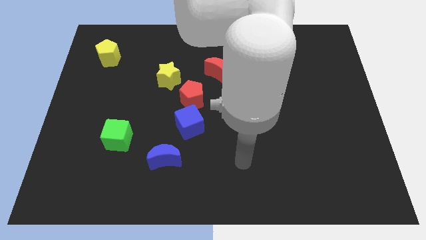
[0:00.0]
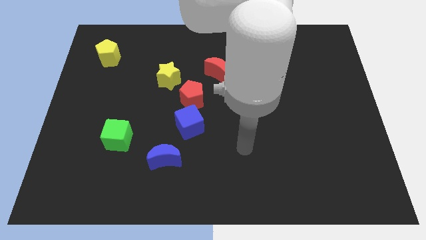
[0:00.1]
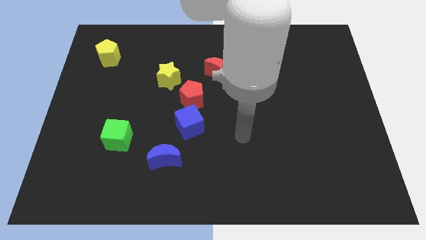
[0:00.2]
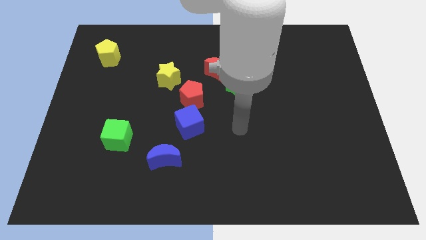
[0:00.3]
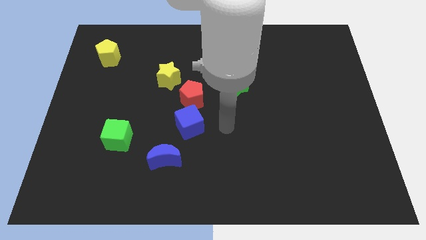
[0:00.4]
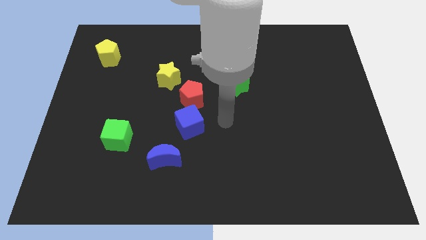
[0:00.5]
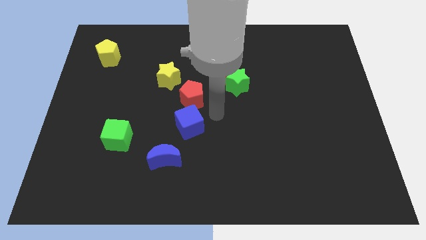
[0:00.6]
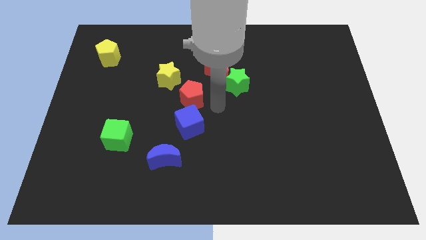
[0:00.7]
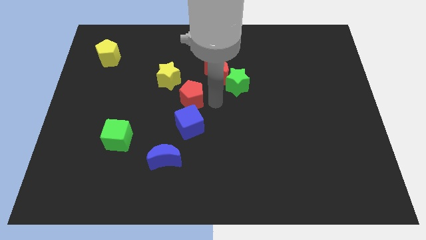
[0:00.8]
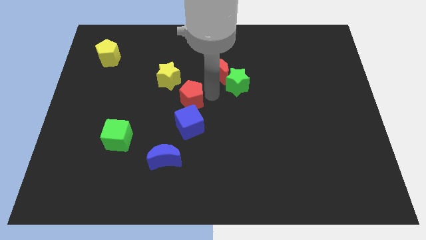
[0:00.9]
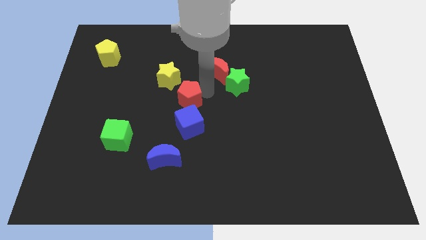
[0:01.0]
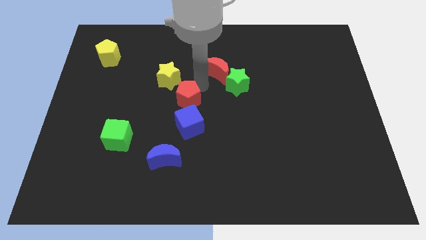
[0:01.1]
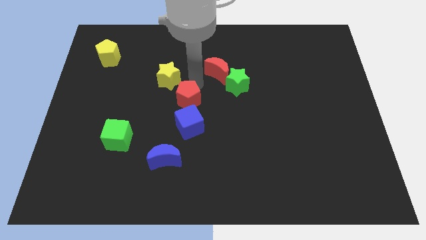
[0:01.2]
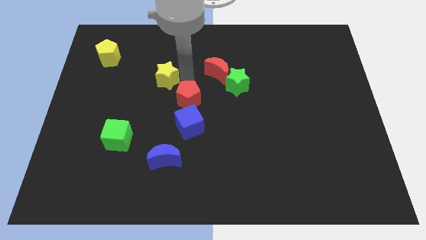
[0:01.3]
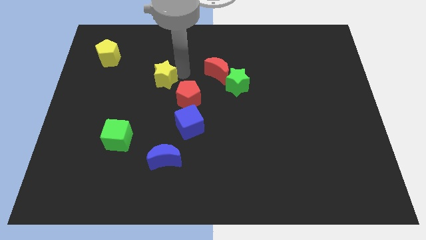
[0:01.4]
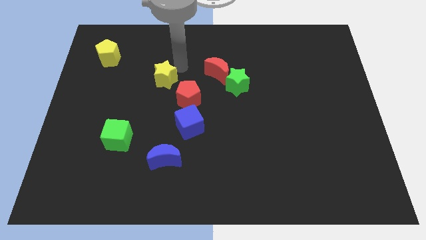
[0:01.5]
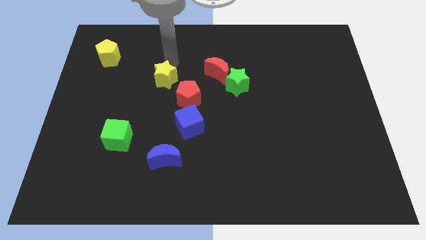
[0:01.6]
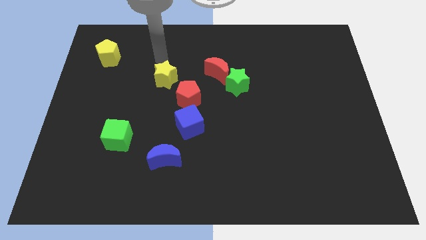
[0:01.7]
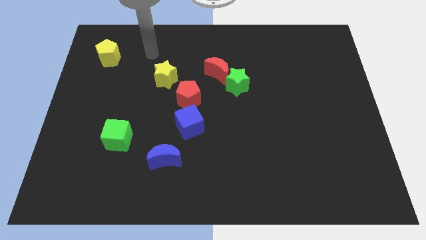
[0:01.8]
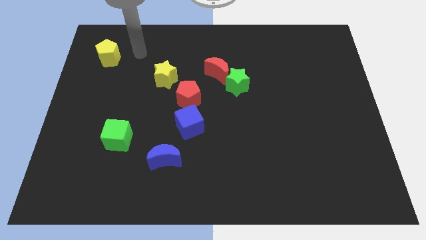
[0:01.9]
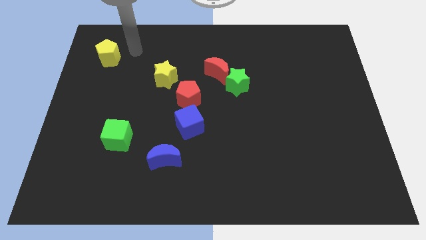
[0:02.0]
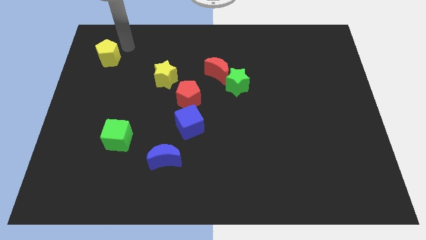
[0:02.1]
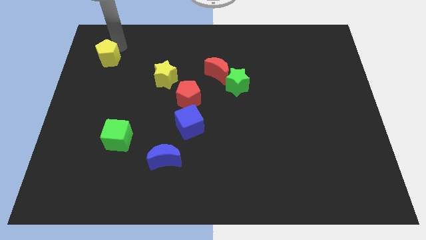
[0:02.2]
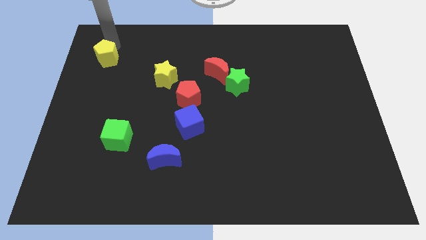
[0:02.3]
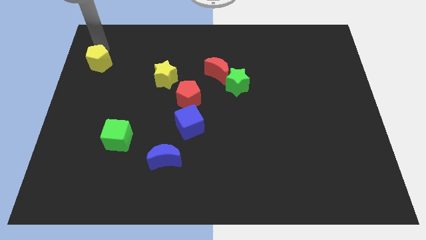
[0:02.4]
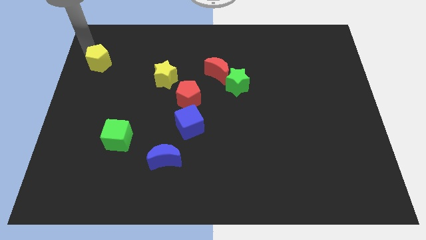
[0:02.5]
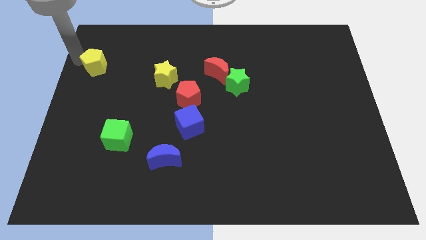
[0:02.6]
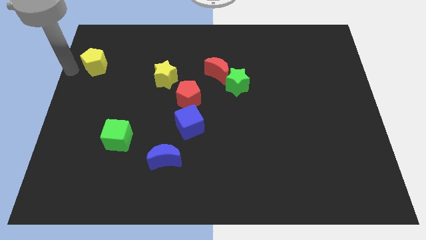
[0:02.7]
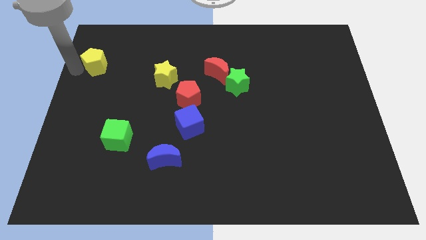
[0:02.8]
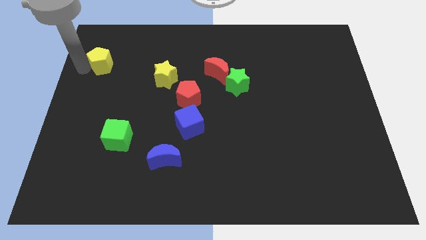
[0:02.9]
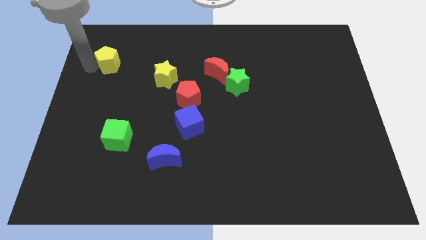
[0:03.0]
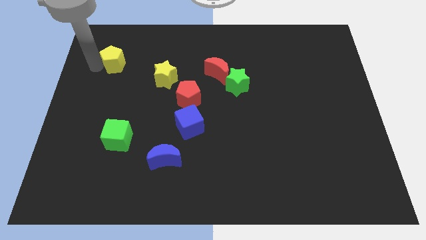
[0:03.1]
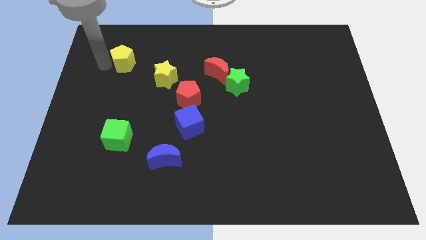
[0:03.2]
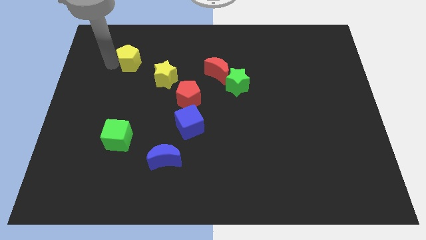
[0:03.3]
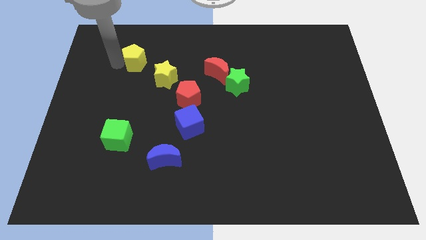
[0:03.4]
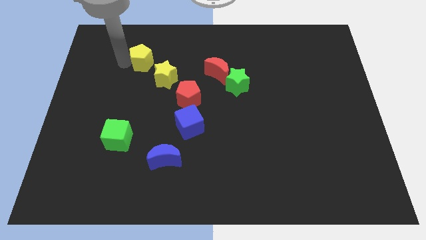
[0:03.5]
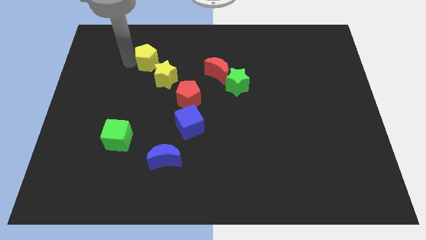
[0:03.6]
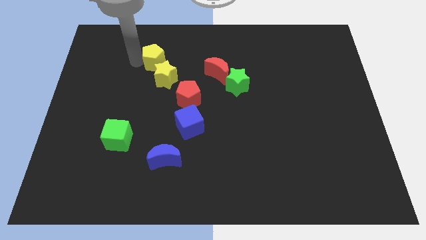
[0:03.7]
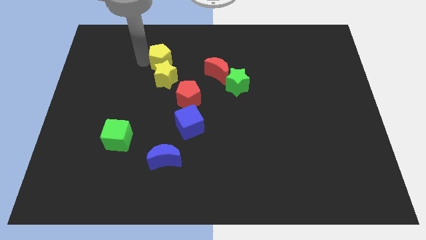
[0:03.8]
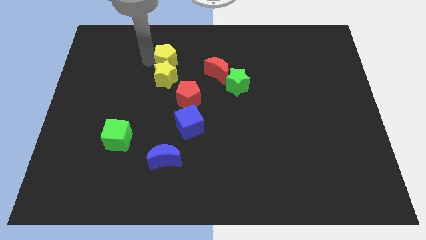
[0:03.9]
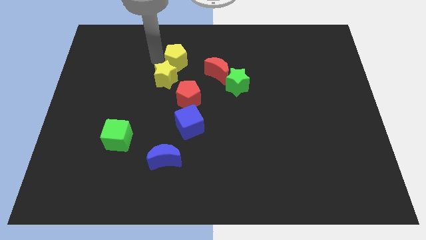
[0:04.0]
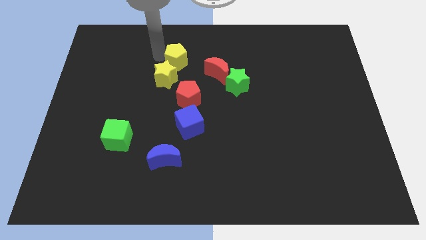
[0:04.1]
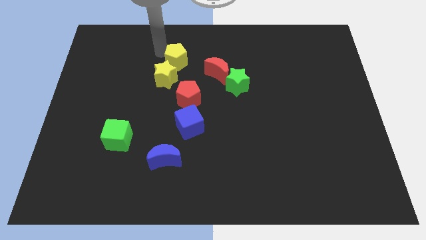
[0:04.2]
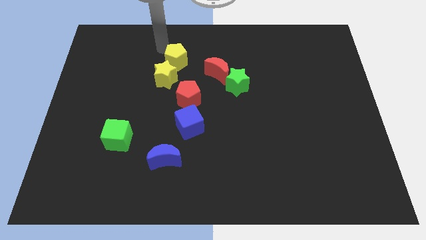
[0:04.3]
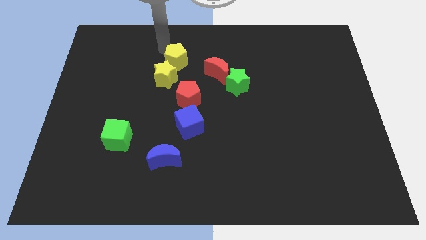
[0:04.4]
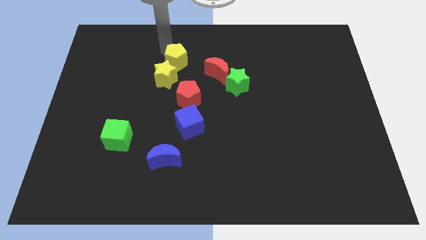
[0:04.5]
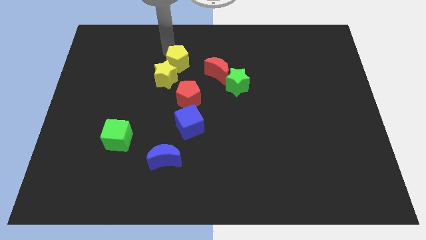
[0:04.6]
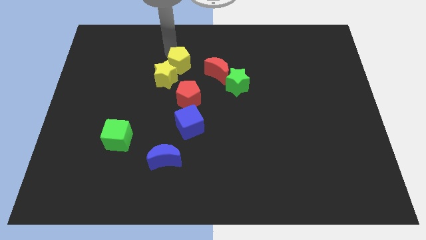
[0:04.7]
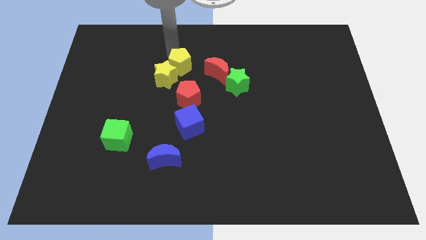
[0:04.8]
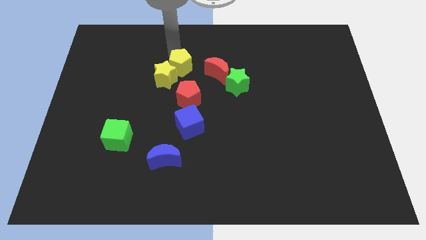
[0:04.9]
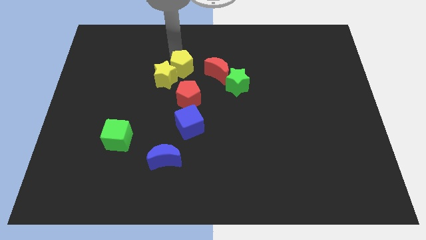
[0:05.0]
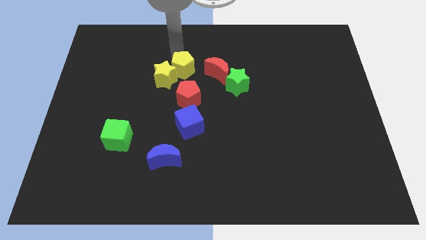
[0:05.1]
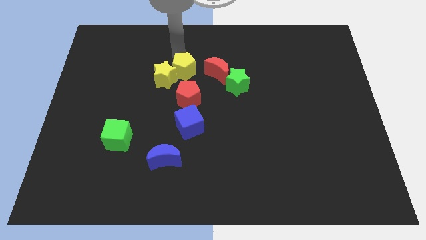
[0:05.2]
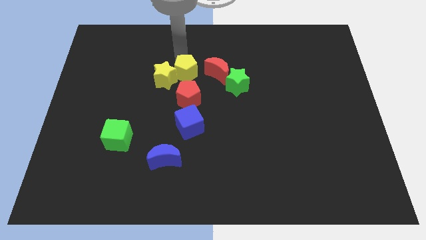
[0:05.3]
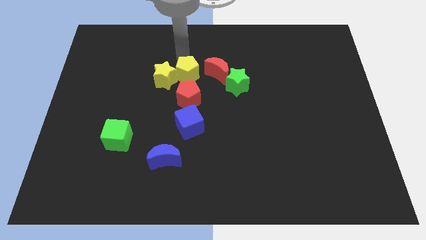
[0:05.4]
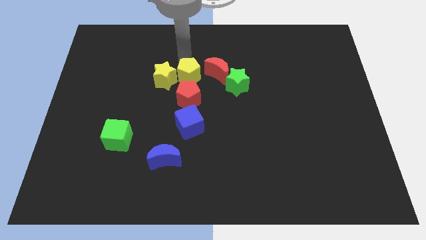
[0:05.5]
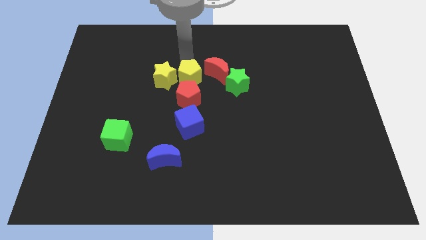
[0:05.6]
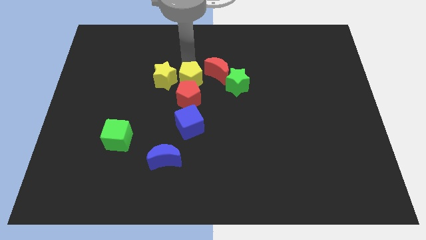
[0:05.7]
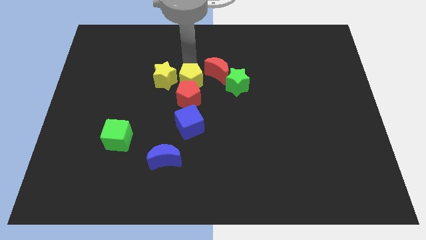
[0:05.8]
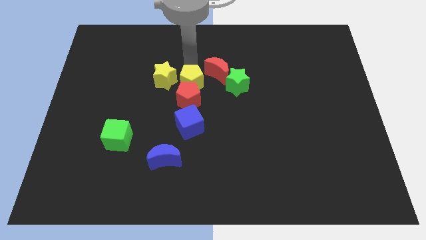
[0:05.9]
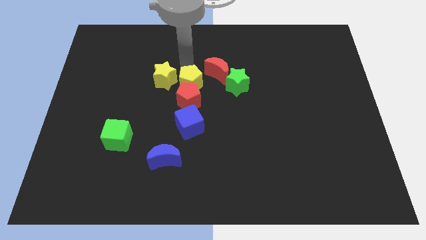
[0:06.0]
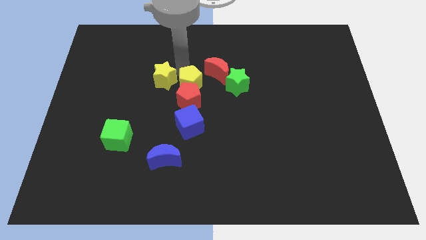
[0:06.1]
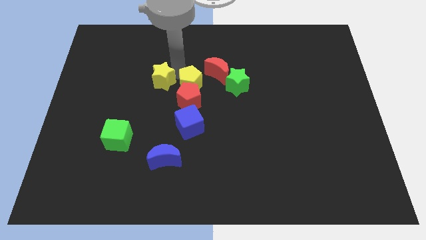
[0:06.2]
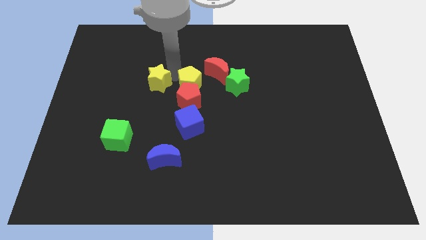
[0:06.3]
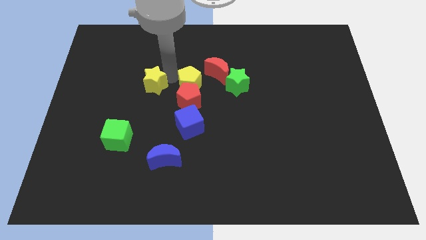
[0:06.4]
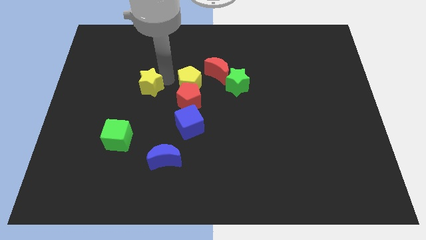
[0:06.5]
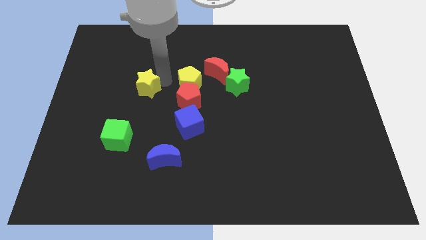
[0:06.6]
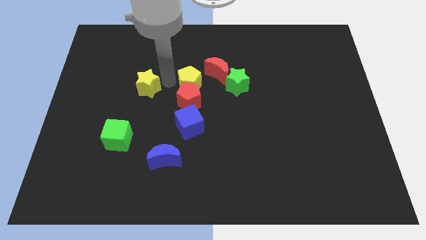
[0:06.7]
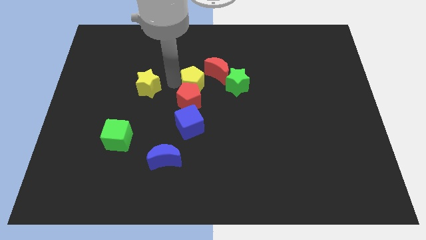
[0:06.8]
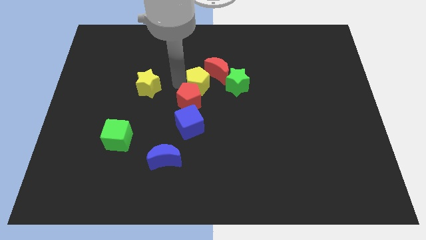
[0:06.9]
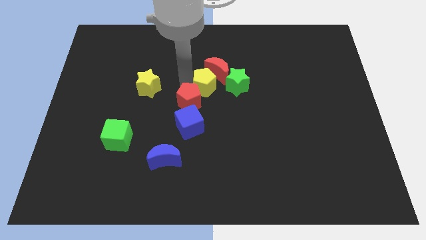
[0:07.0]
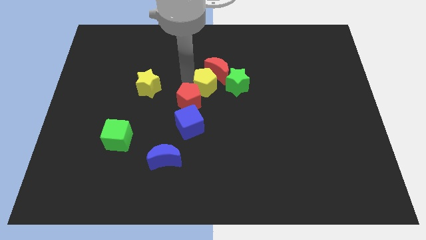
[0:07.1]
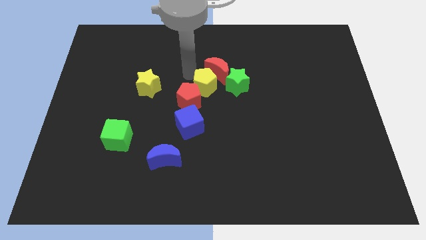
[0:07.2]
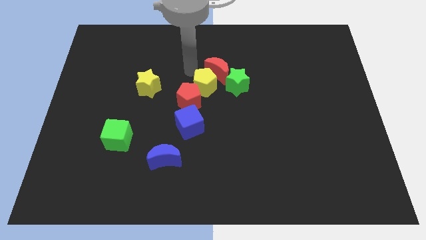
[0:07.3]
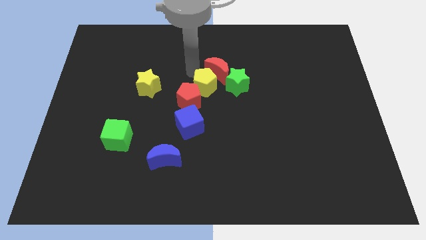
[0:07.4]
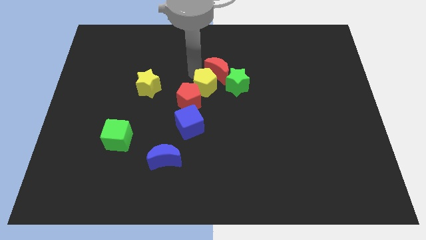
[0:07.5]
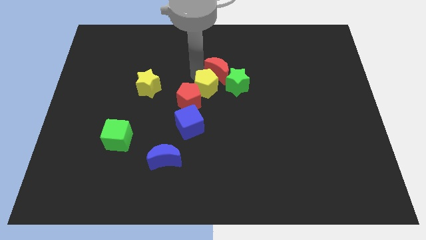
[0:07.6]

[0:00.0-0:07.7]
put the yellow pentagon to the bottom left side of the green star
